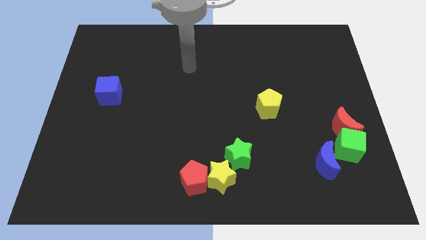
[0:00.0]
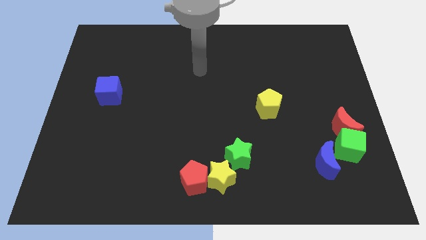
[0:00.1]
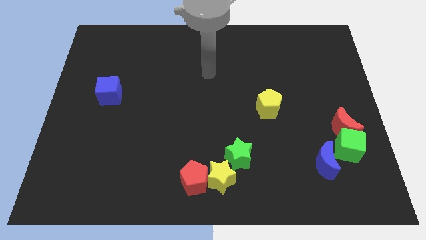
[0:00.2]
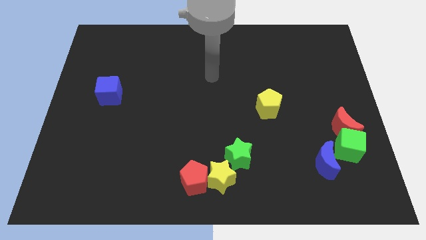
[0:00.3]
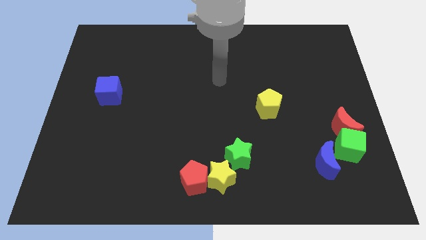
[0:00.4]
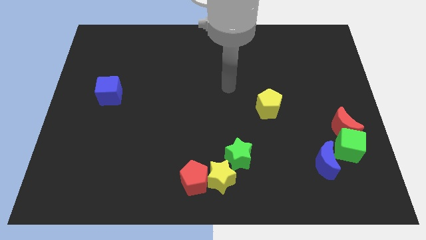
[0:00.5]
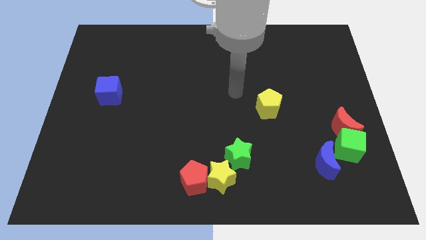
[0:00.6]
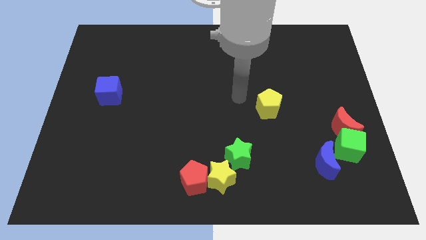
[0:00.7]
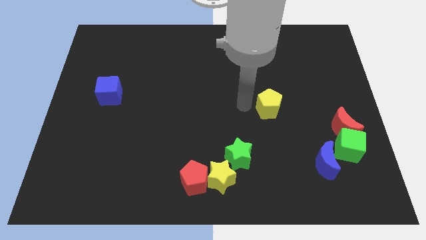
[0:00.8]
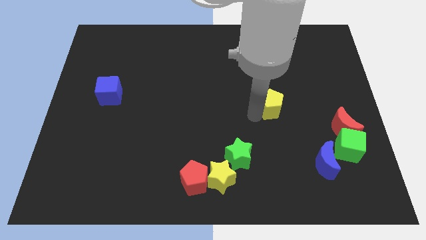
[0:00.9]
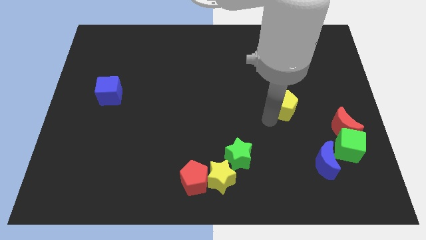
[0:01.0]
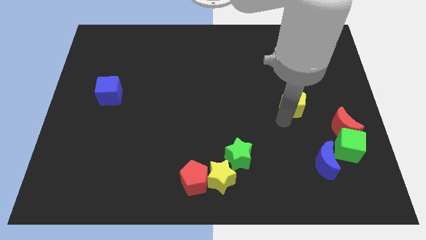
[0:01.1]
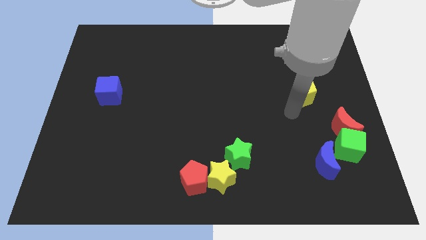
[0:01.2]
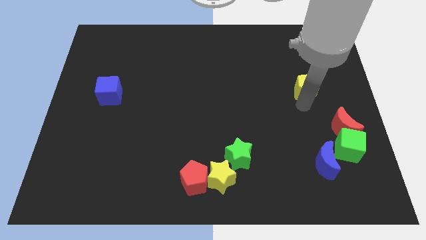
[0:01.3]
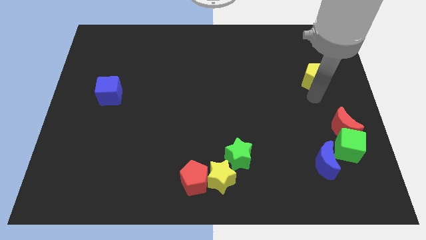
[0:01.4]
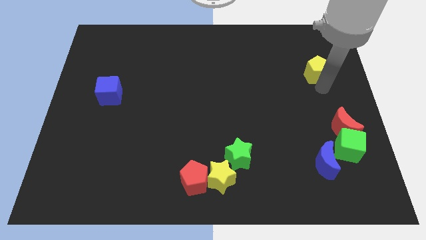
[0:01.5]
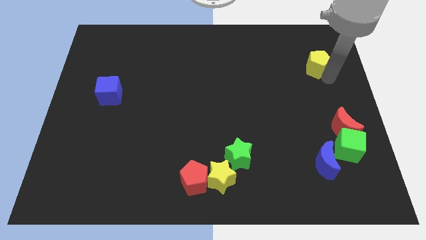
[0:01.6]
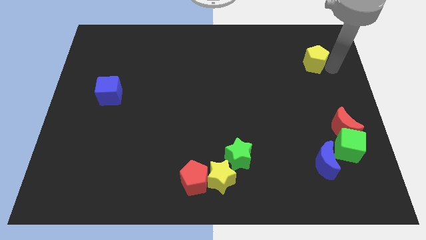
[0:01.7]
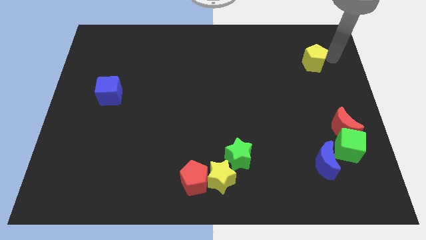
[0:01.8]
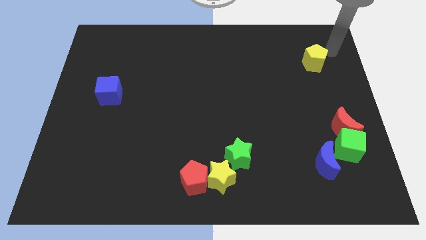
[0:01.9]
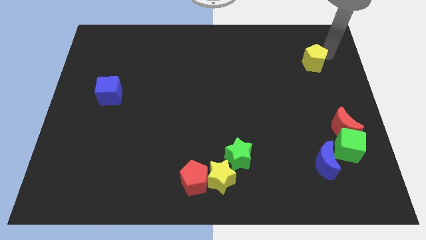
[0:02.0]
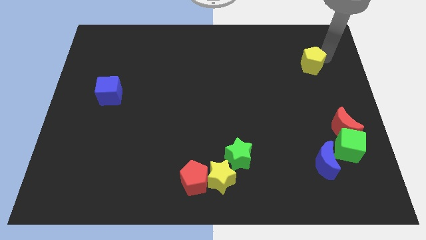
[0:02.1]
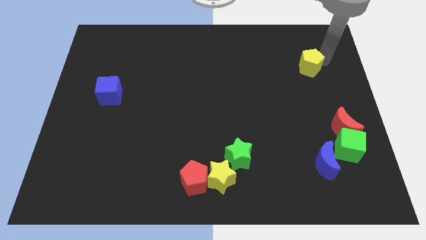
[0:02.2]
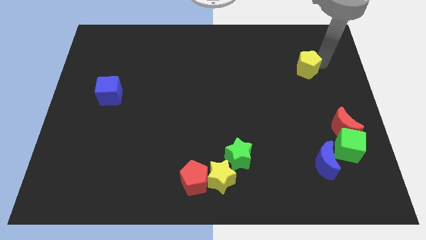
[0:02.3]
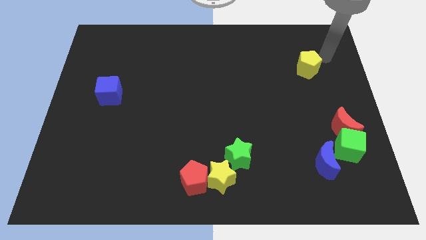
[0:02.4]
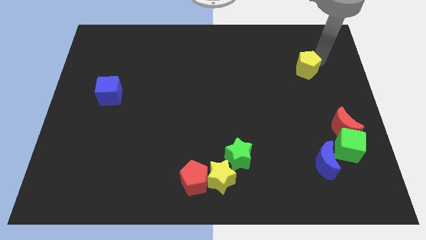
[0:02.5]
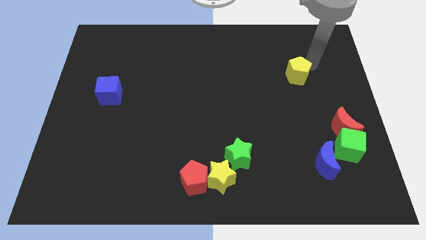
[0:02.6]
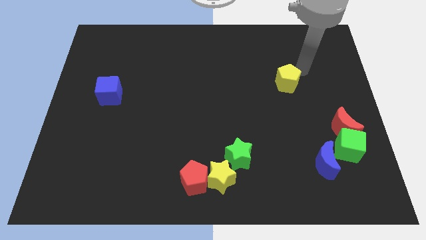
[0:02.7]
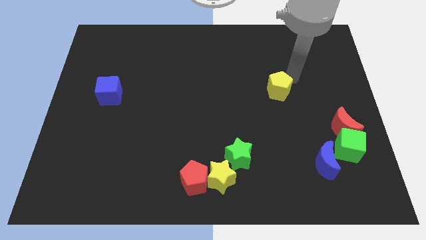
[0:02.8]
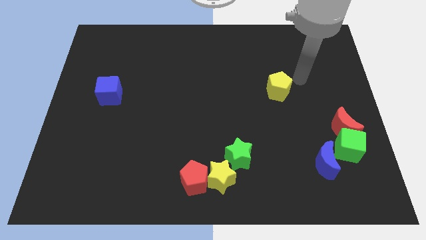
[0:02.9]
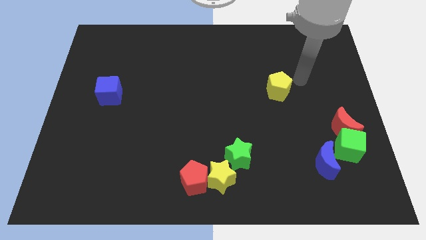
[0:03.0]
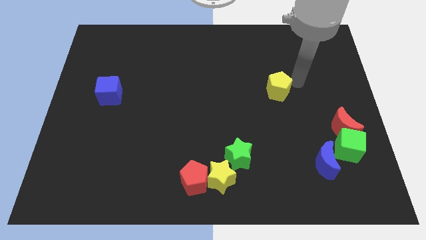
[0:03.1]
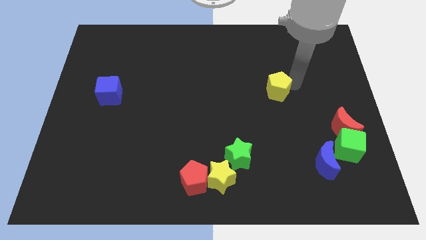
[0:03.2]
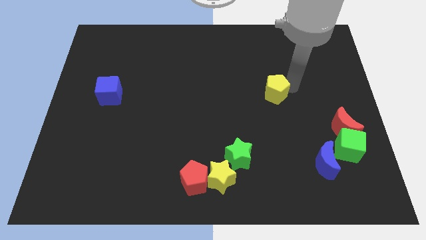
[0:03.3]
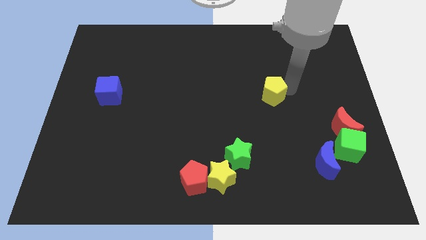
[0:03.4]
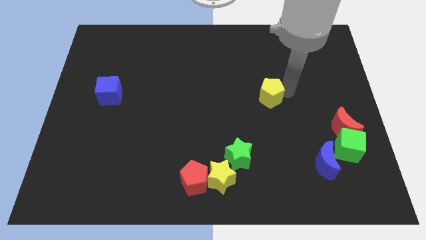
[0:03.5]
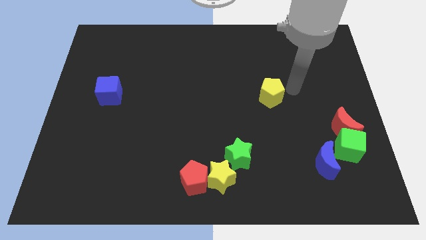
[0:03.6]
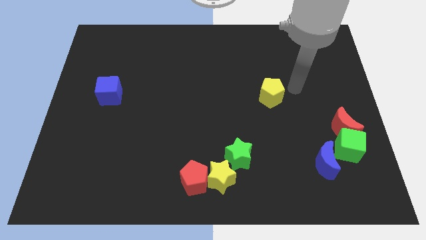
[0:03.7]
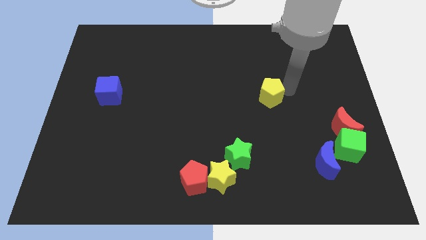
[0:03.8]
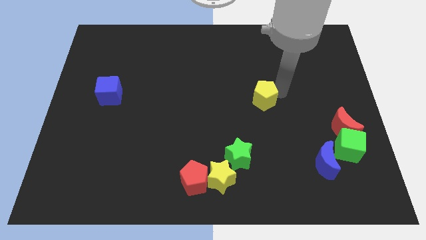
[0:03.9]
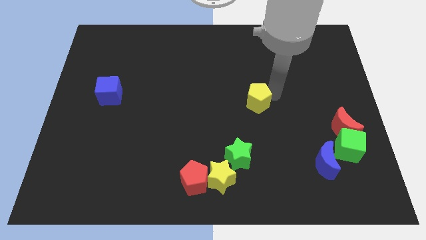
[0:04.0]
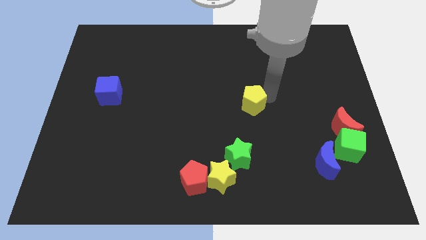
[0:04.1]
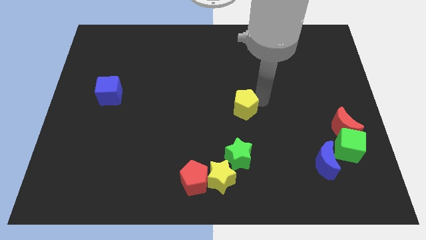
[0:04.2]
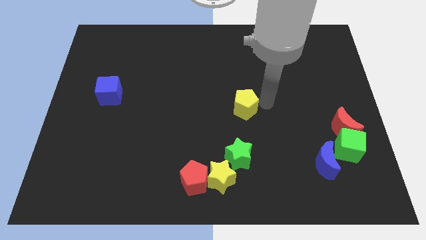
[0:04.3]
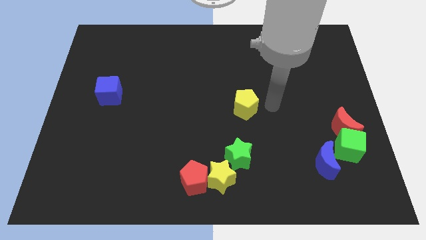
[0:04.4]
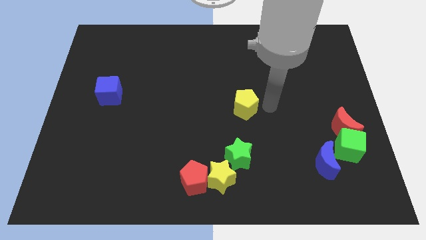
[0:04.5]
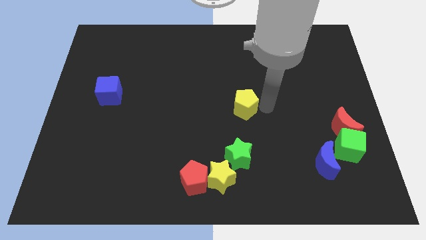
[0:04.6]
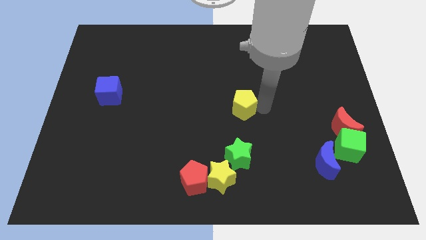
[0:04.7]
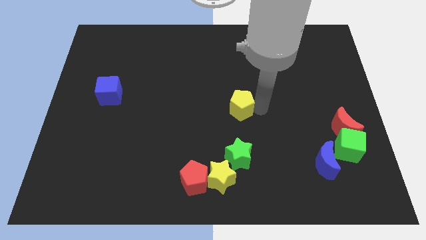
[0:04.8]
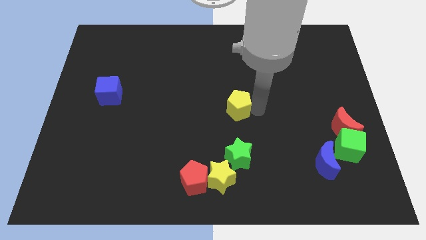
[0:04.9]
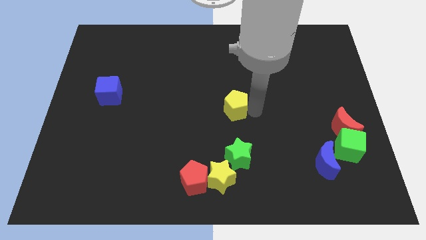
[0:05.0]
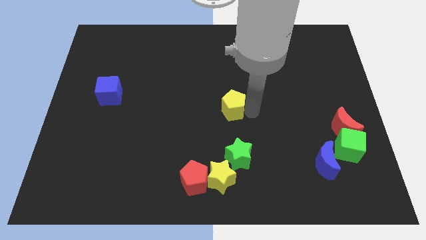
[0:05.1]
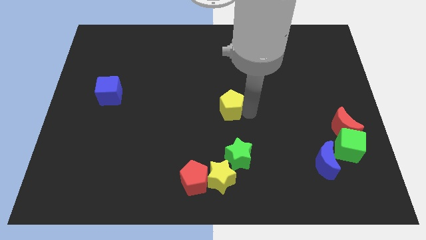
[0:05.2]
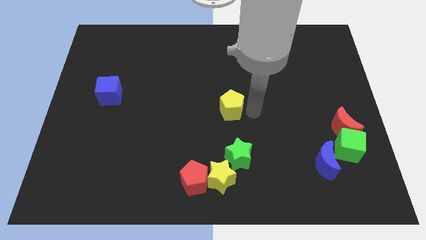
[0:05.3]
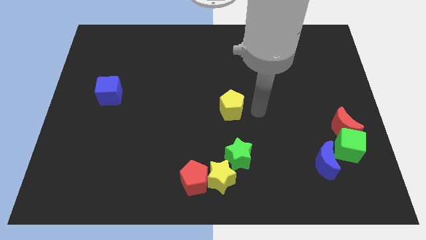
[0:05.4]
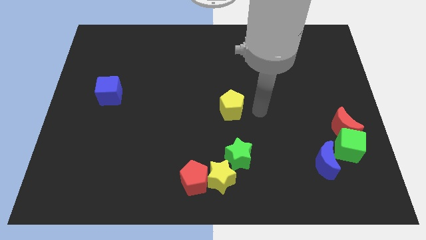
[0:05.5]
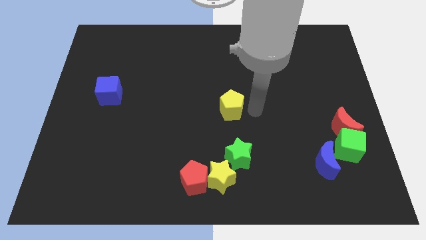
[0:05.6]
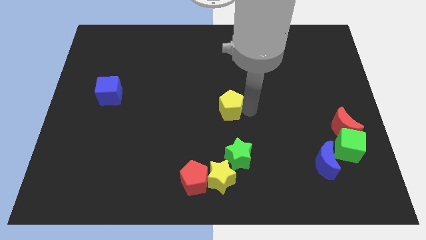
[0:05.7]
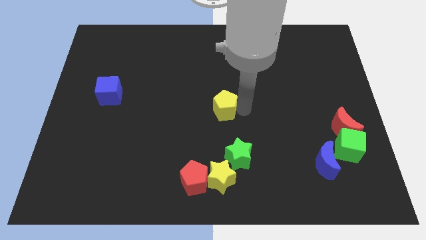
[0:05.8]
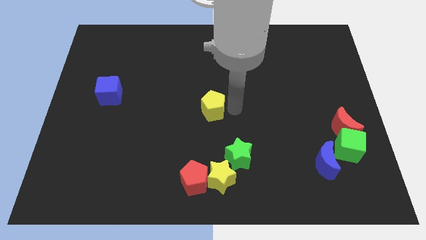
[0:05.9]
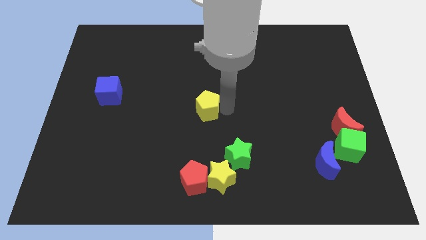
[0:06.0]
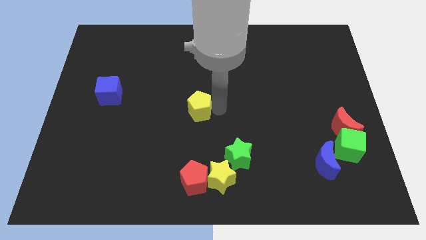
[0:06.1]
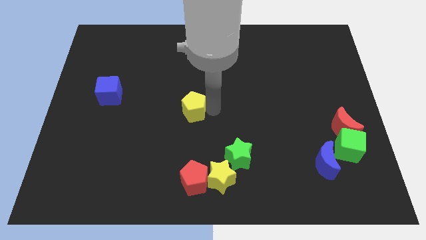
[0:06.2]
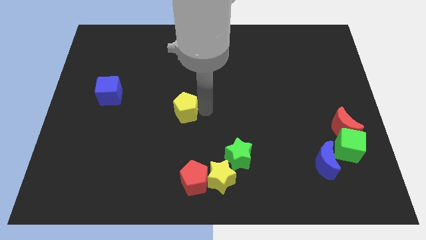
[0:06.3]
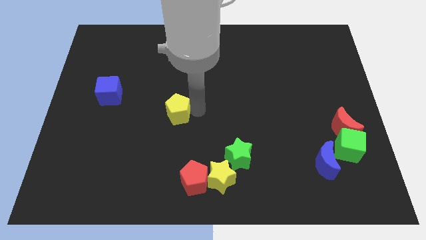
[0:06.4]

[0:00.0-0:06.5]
push the yellow pentagon to the left

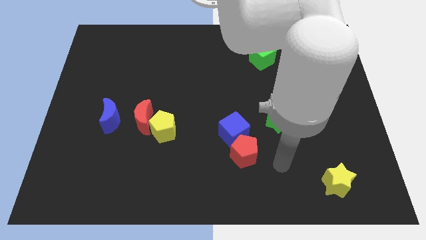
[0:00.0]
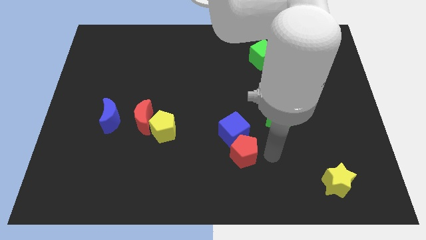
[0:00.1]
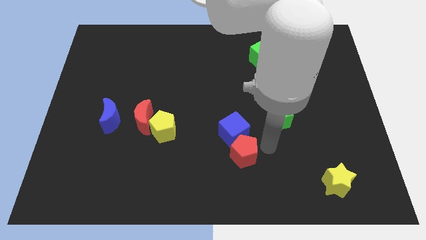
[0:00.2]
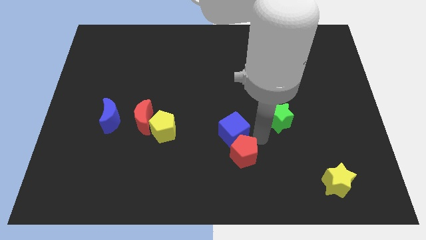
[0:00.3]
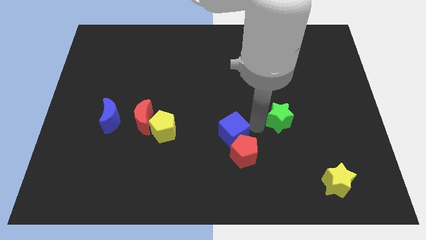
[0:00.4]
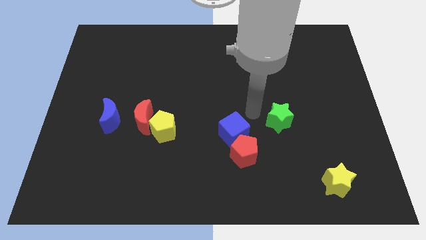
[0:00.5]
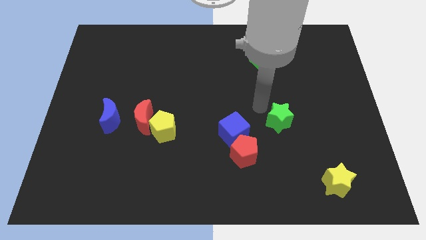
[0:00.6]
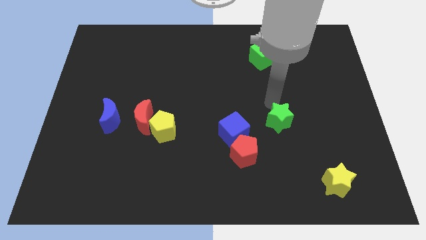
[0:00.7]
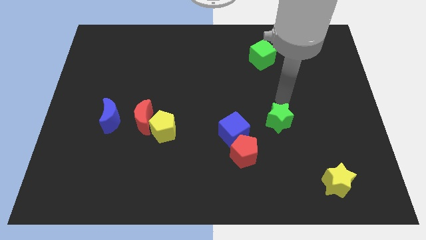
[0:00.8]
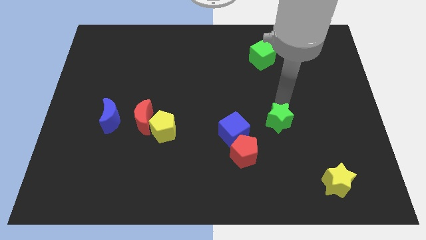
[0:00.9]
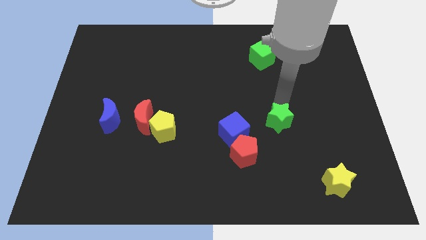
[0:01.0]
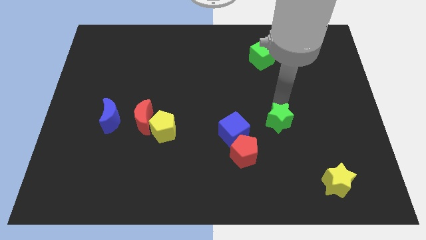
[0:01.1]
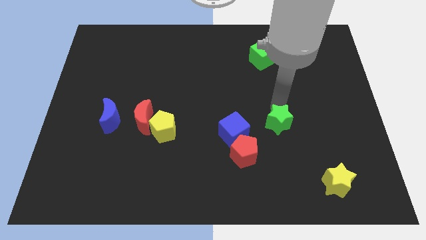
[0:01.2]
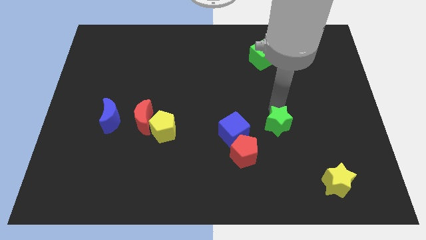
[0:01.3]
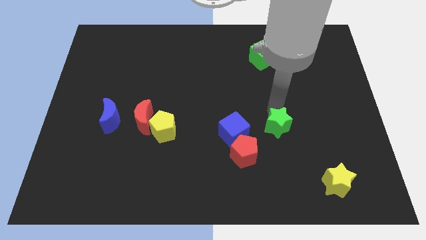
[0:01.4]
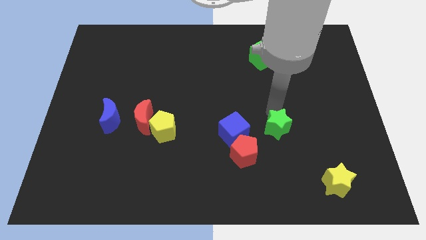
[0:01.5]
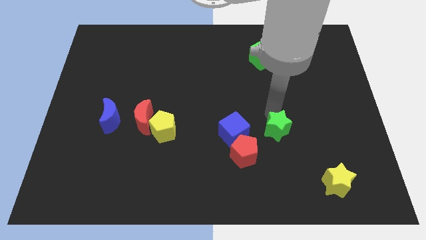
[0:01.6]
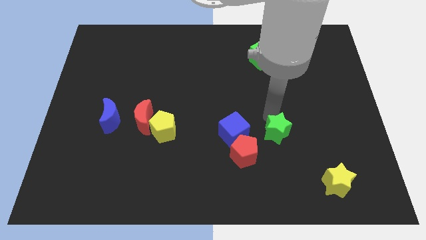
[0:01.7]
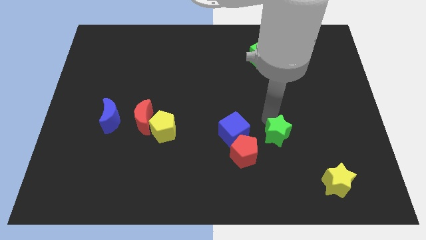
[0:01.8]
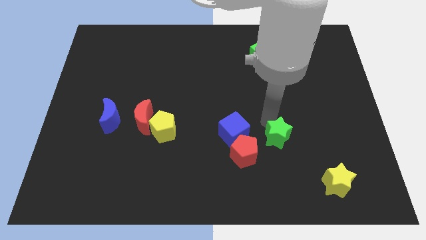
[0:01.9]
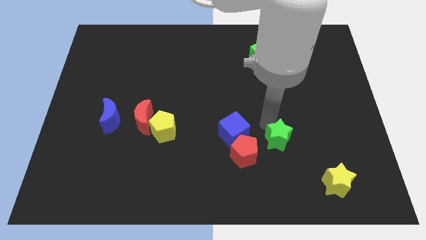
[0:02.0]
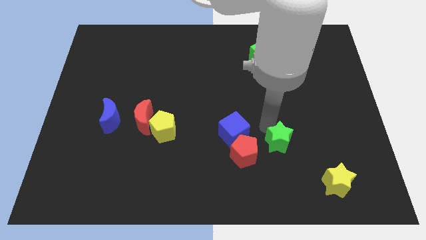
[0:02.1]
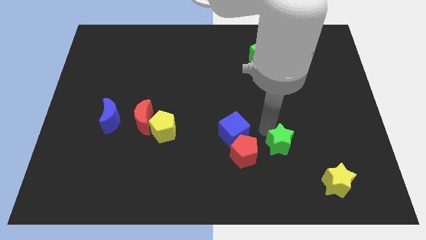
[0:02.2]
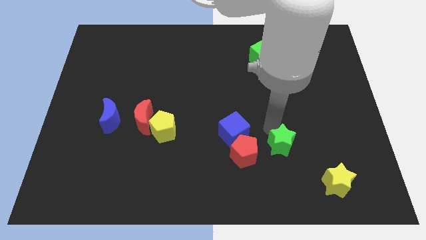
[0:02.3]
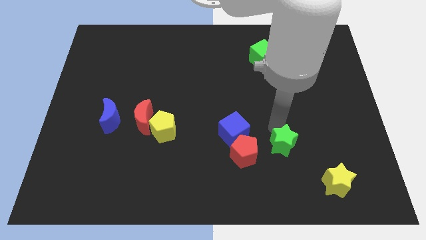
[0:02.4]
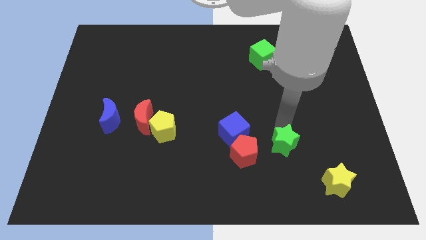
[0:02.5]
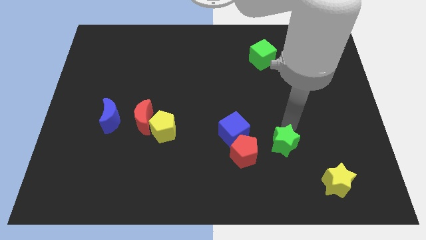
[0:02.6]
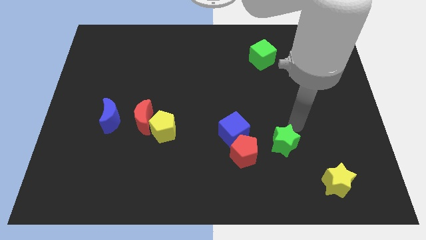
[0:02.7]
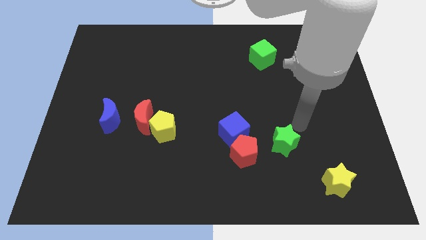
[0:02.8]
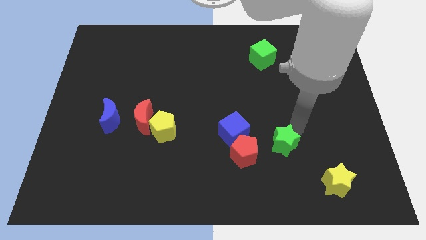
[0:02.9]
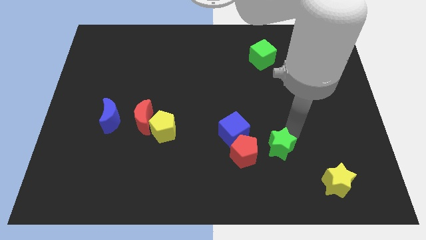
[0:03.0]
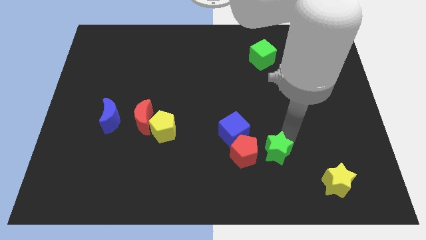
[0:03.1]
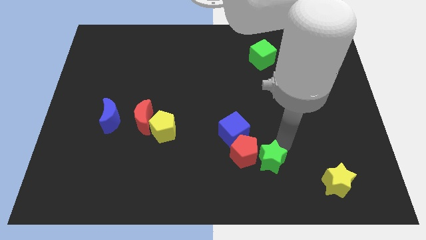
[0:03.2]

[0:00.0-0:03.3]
slide the green star downwards and then to the left a little bit
